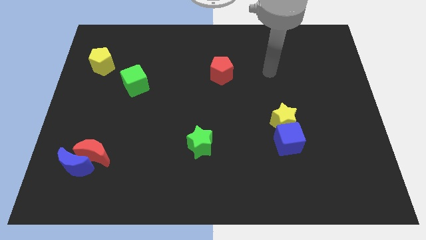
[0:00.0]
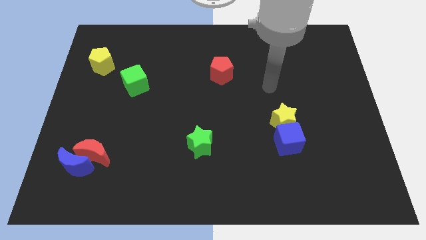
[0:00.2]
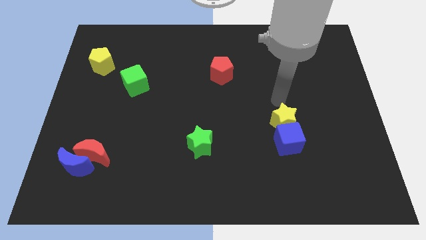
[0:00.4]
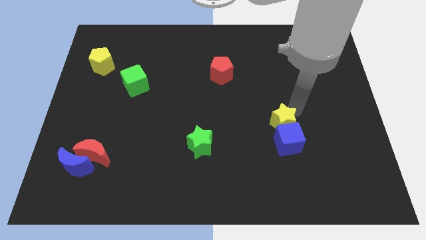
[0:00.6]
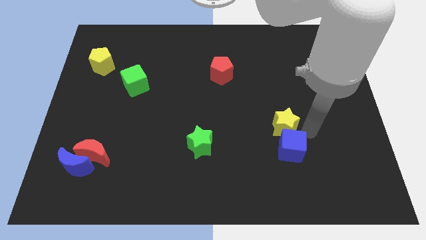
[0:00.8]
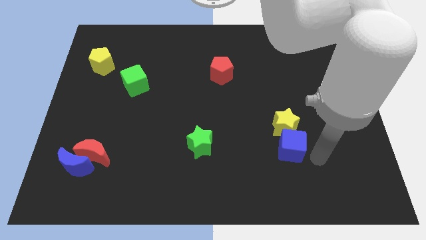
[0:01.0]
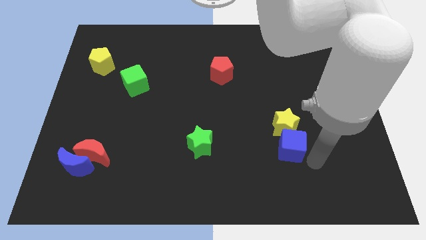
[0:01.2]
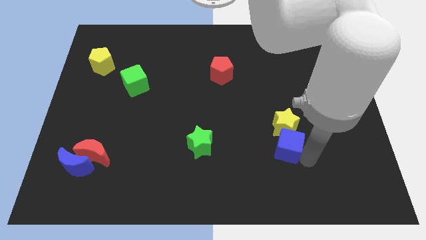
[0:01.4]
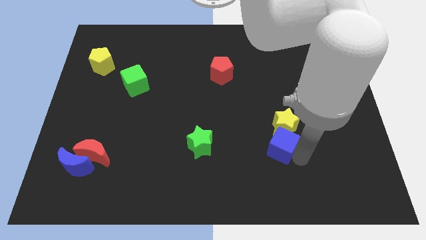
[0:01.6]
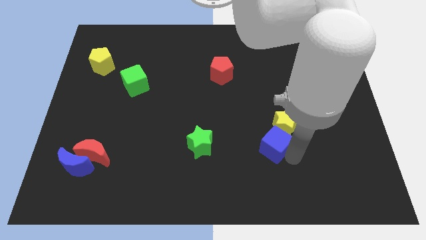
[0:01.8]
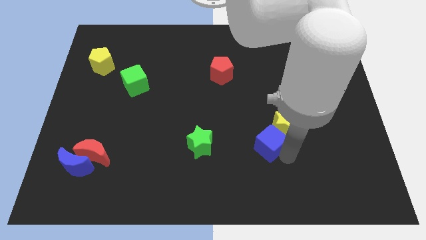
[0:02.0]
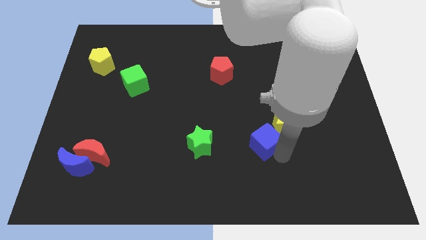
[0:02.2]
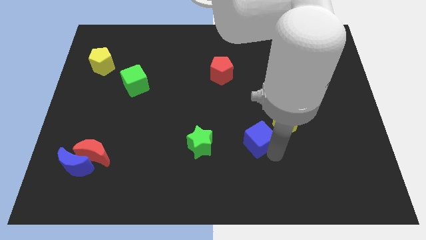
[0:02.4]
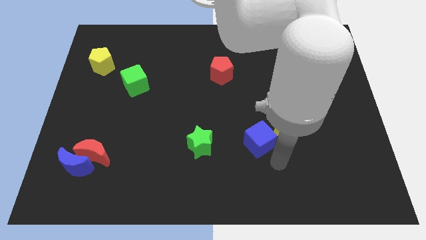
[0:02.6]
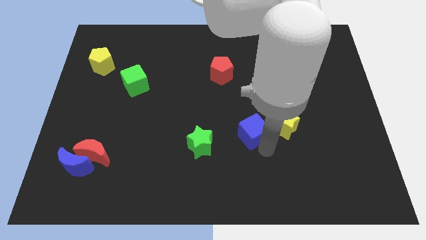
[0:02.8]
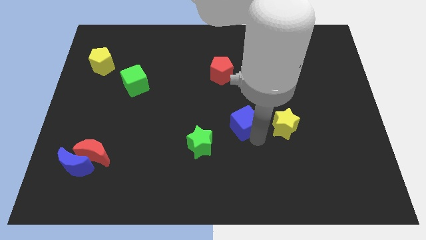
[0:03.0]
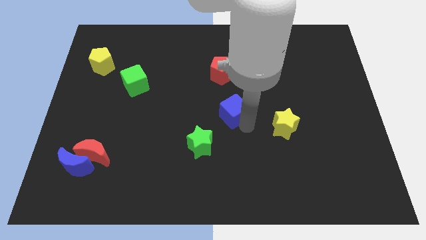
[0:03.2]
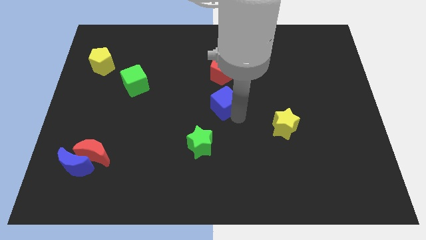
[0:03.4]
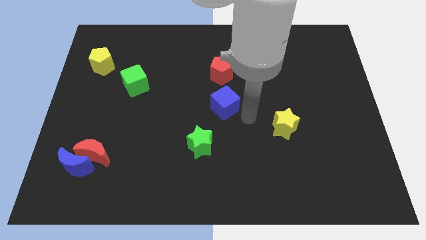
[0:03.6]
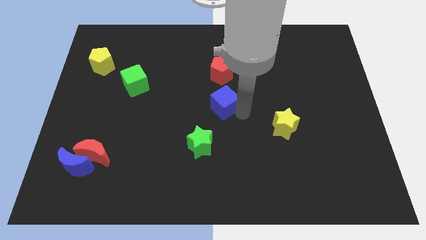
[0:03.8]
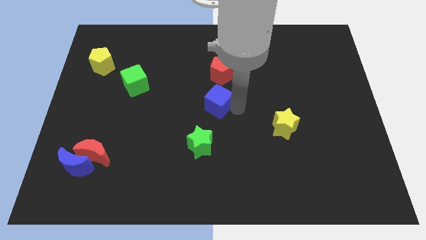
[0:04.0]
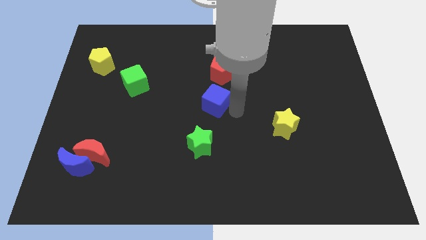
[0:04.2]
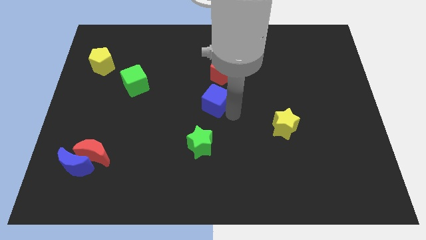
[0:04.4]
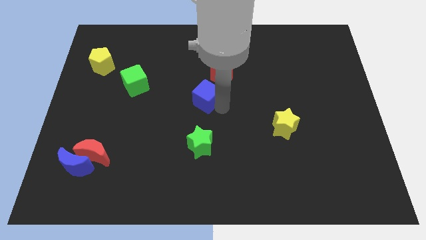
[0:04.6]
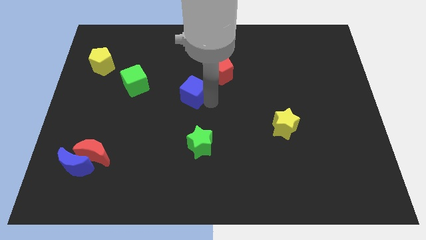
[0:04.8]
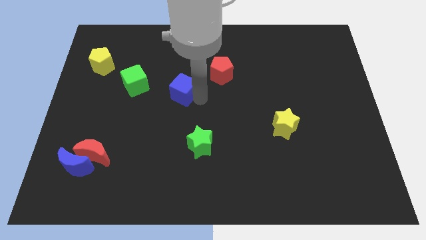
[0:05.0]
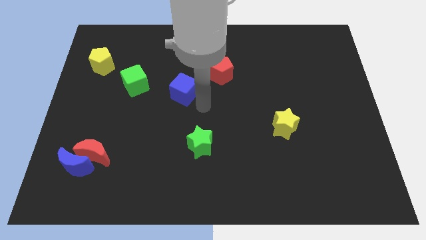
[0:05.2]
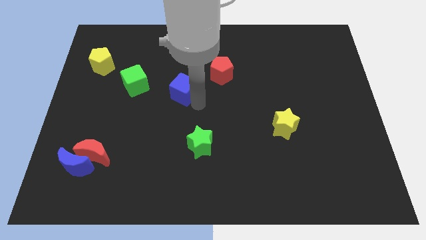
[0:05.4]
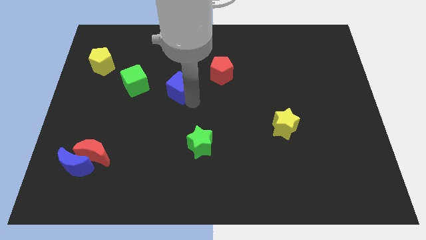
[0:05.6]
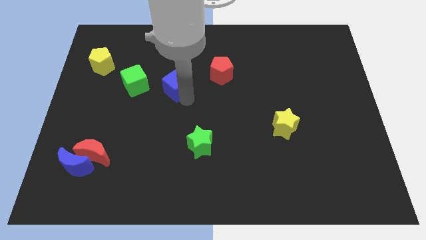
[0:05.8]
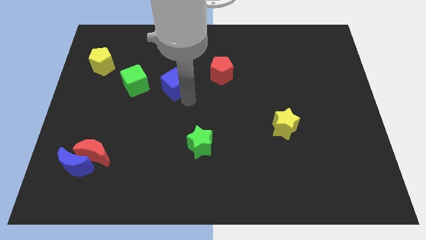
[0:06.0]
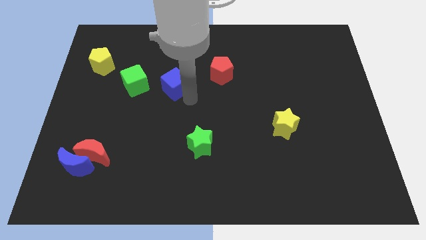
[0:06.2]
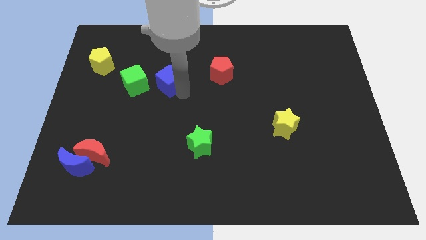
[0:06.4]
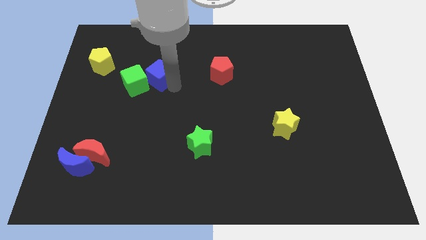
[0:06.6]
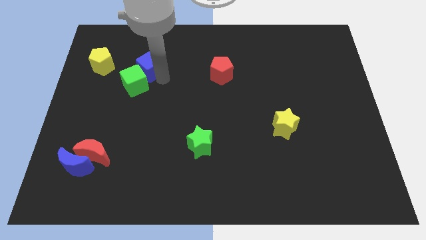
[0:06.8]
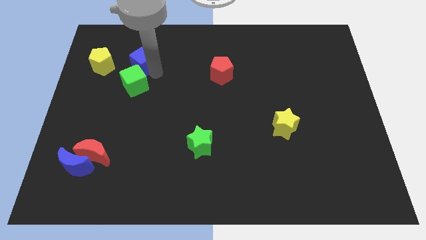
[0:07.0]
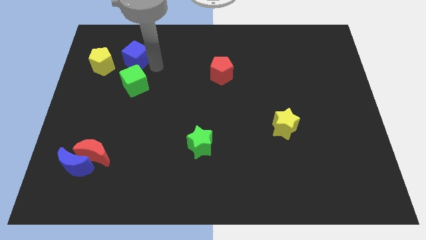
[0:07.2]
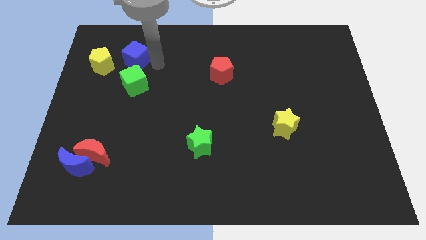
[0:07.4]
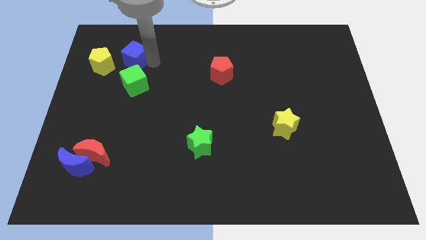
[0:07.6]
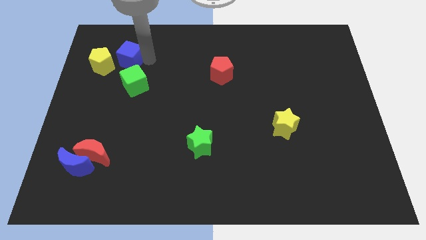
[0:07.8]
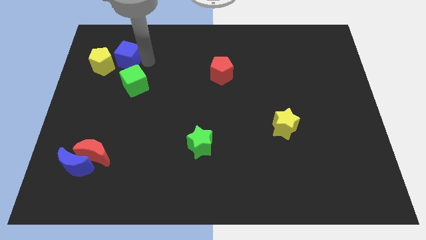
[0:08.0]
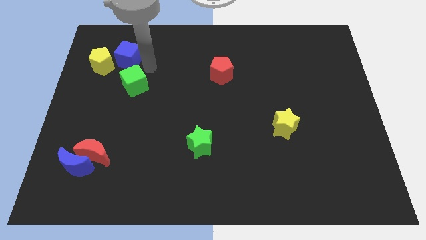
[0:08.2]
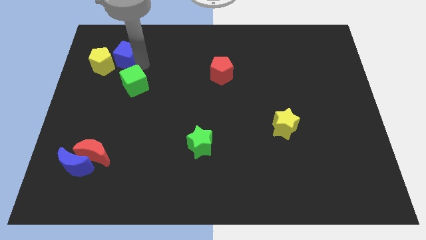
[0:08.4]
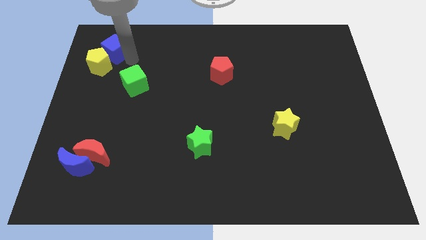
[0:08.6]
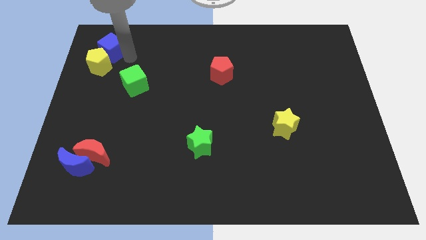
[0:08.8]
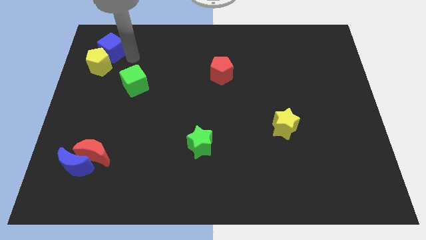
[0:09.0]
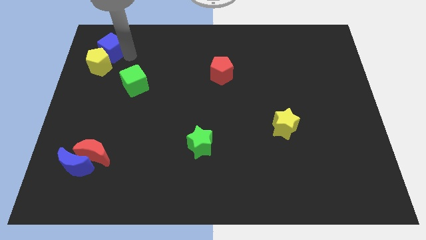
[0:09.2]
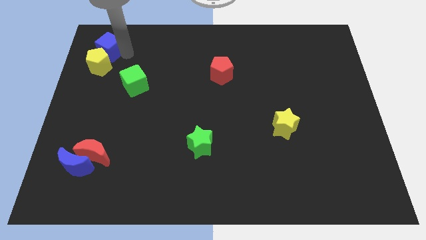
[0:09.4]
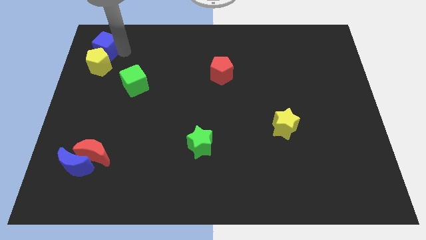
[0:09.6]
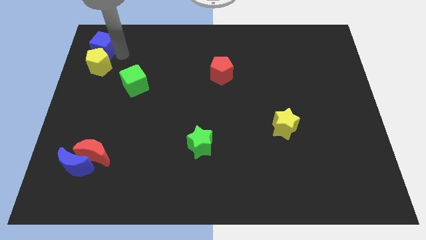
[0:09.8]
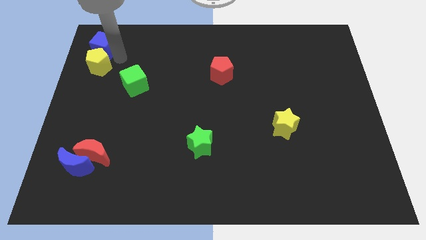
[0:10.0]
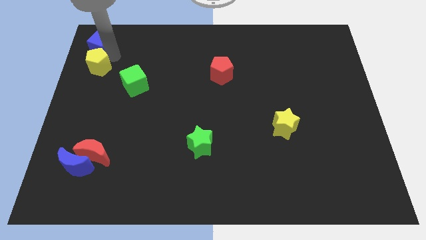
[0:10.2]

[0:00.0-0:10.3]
put the blue cube to the top left

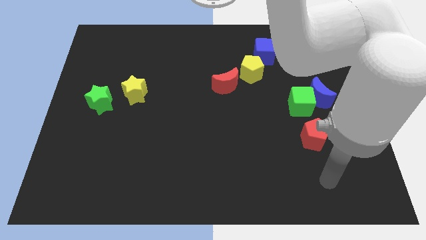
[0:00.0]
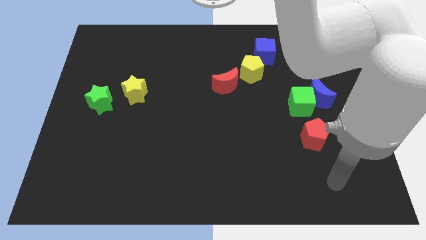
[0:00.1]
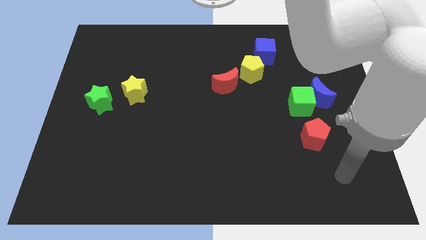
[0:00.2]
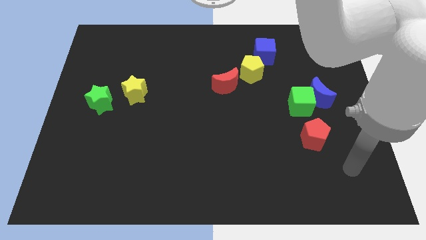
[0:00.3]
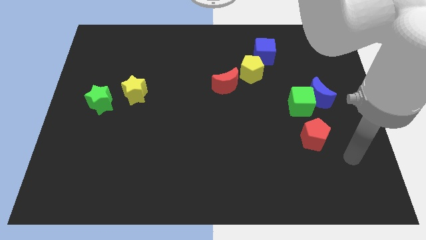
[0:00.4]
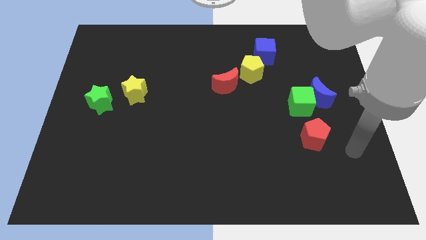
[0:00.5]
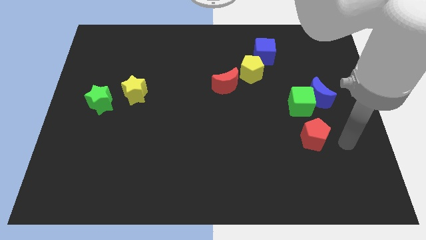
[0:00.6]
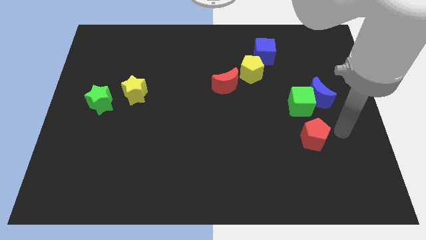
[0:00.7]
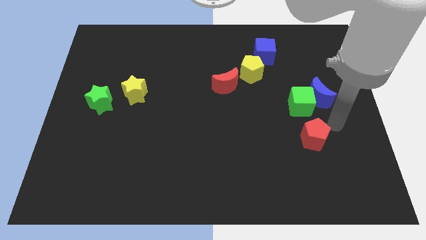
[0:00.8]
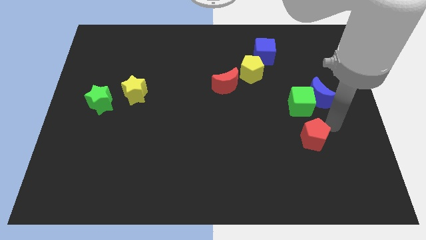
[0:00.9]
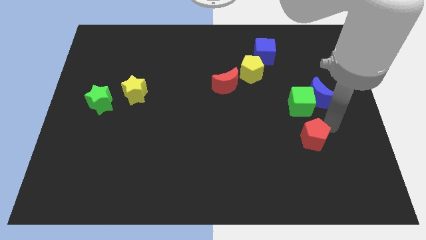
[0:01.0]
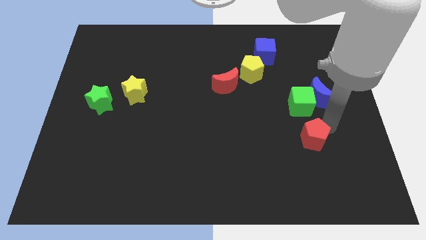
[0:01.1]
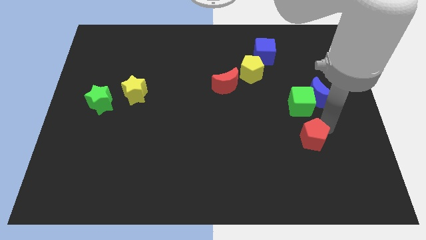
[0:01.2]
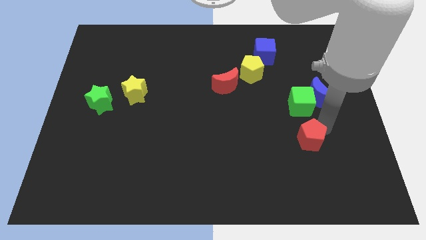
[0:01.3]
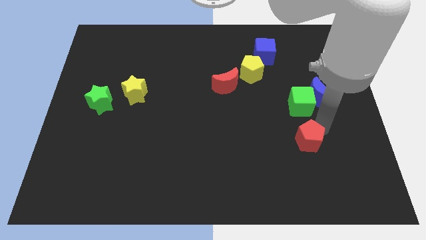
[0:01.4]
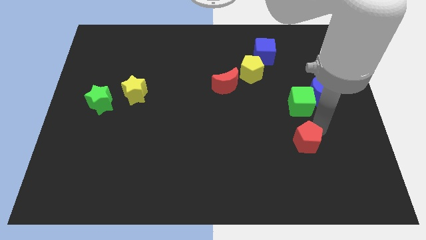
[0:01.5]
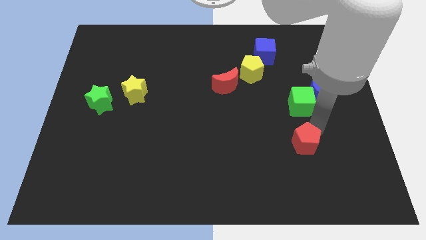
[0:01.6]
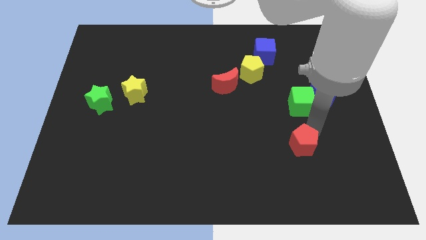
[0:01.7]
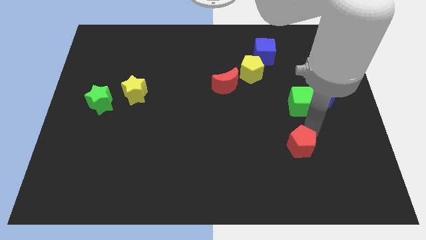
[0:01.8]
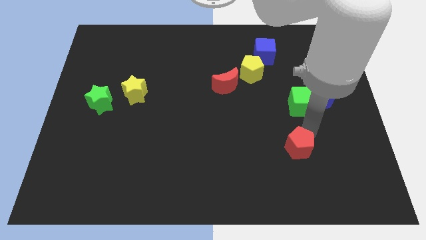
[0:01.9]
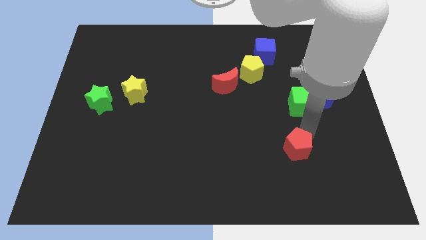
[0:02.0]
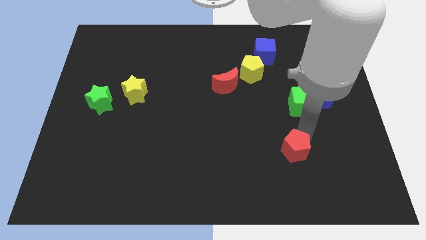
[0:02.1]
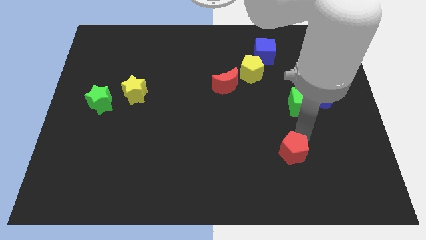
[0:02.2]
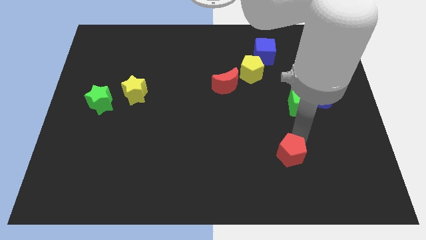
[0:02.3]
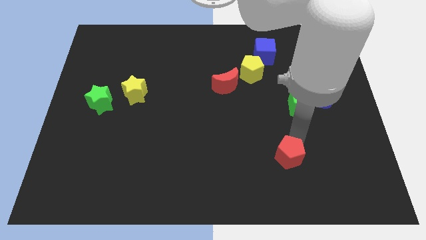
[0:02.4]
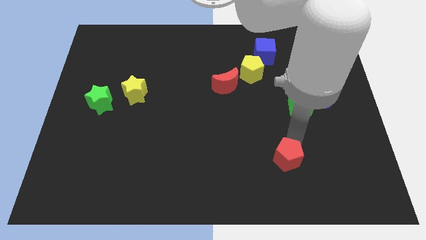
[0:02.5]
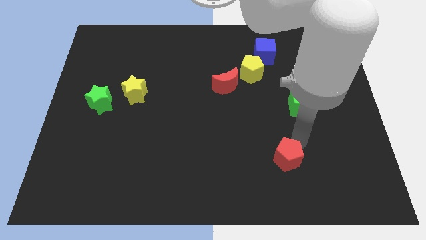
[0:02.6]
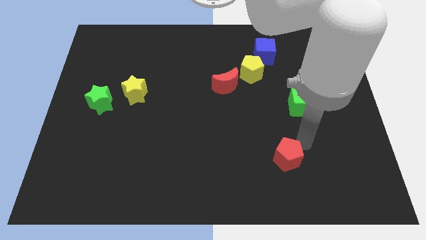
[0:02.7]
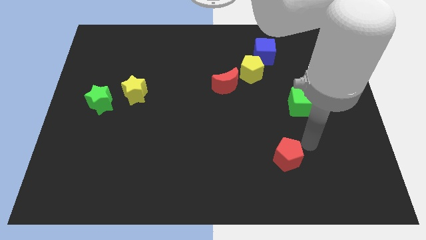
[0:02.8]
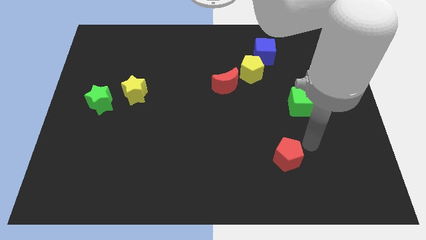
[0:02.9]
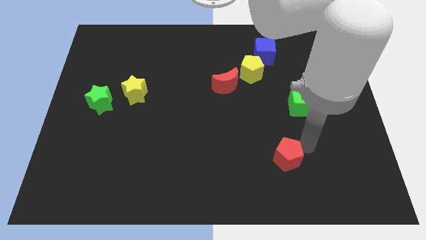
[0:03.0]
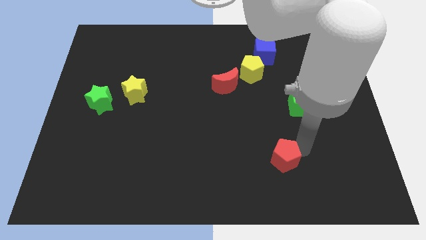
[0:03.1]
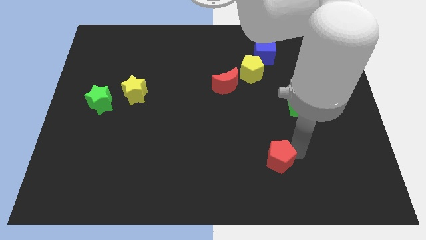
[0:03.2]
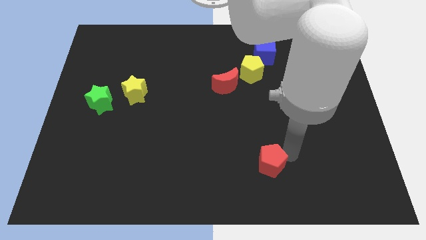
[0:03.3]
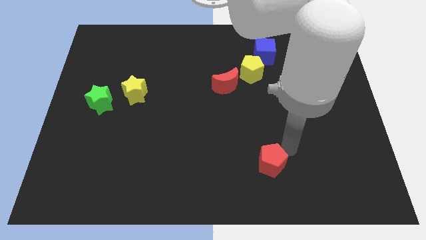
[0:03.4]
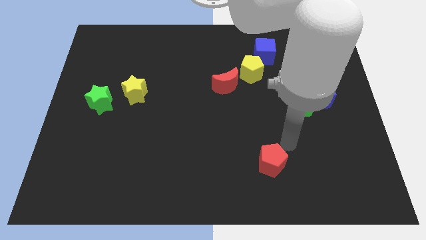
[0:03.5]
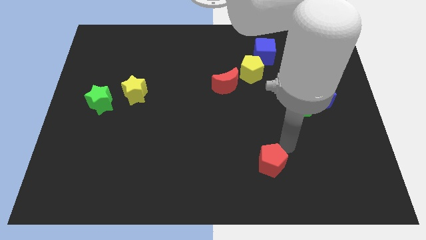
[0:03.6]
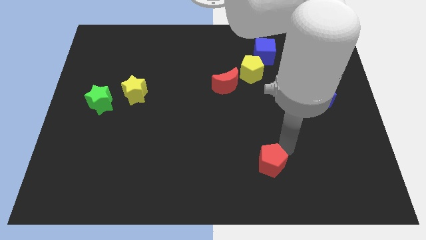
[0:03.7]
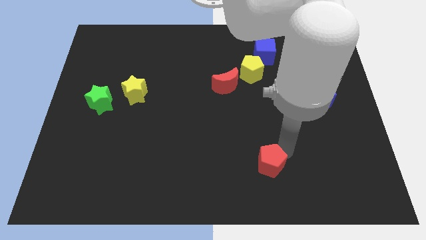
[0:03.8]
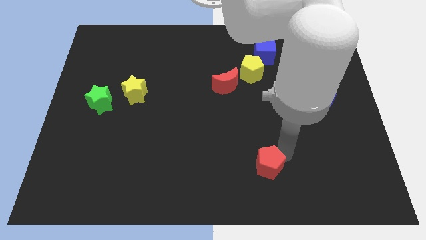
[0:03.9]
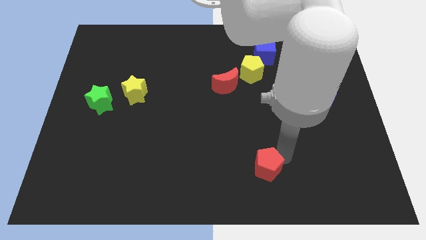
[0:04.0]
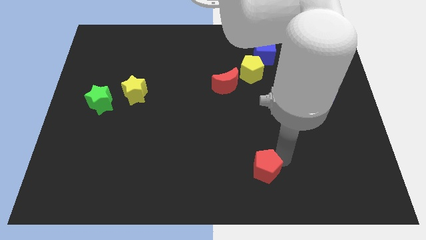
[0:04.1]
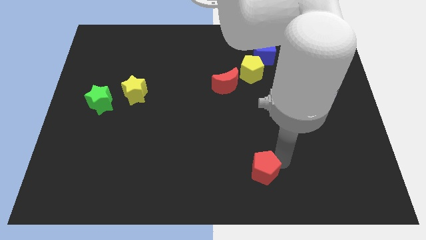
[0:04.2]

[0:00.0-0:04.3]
move the red pentagon to the bottom
